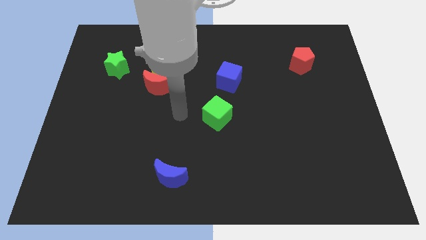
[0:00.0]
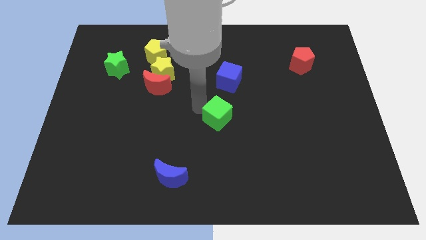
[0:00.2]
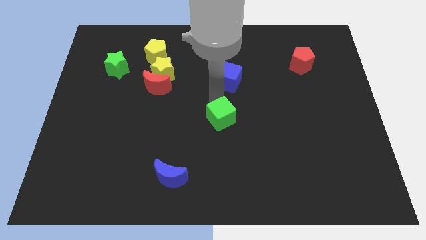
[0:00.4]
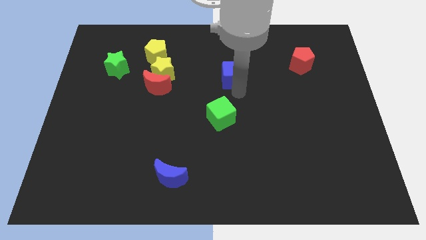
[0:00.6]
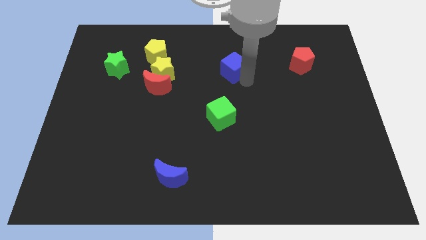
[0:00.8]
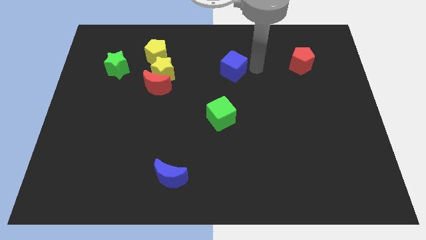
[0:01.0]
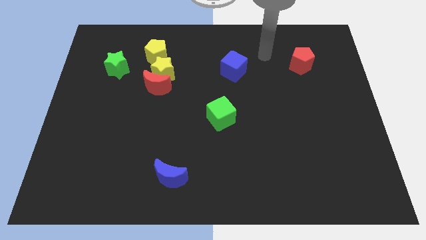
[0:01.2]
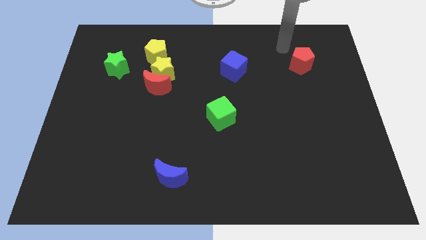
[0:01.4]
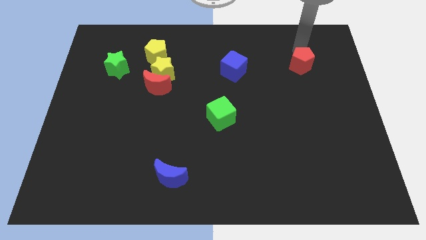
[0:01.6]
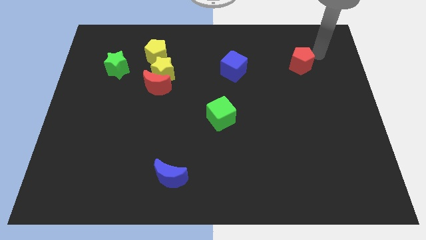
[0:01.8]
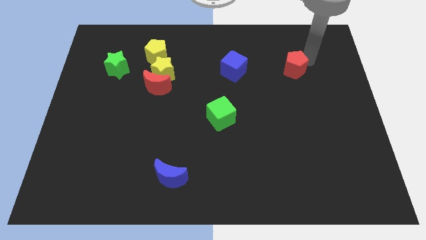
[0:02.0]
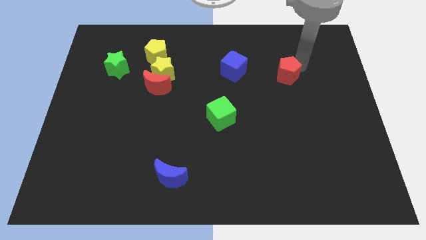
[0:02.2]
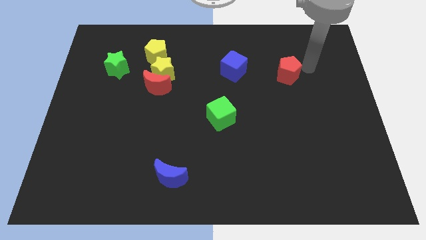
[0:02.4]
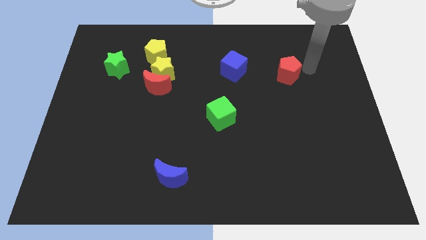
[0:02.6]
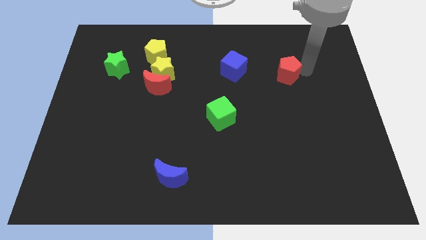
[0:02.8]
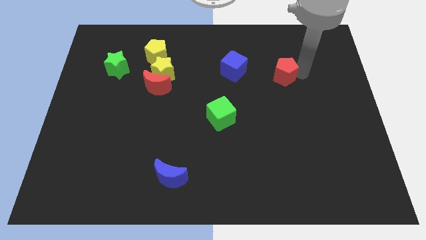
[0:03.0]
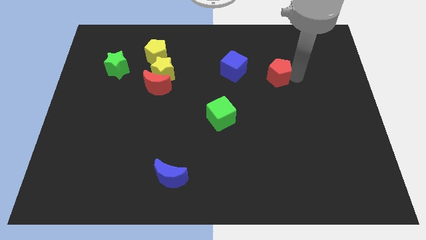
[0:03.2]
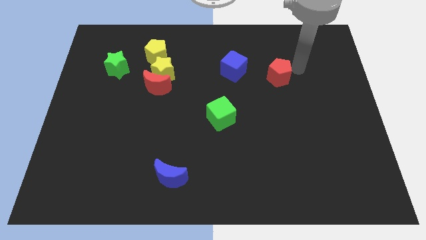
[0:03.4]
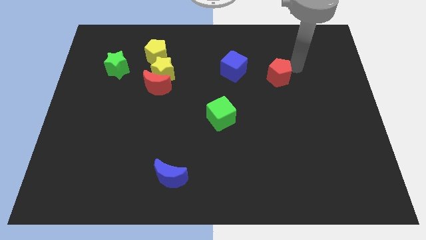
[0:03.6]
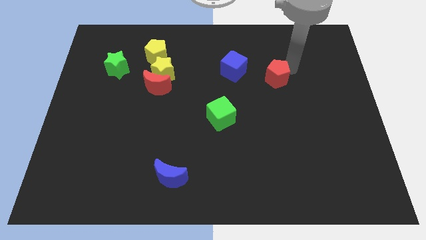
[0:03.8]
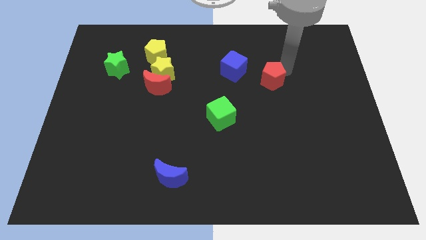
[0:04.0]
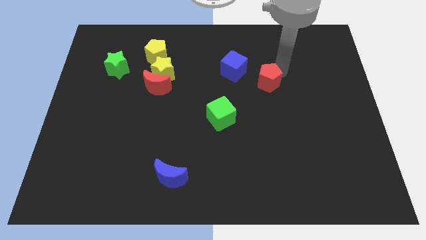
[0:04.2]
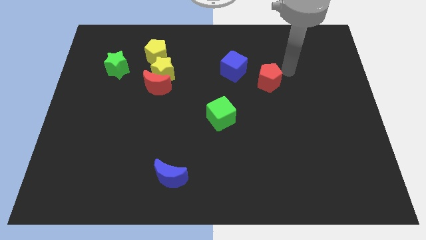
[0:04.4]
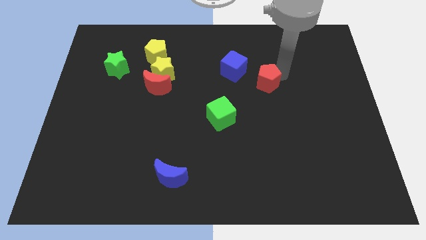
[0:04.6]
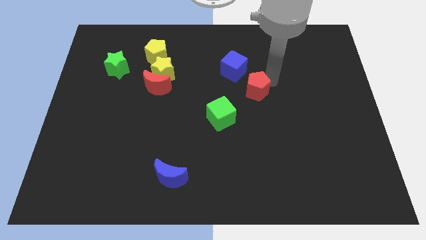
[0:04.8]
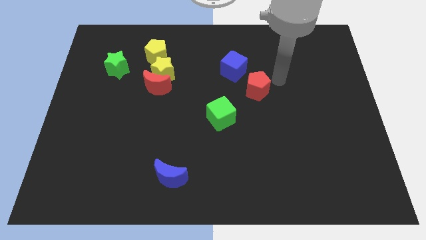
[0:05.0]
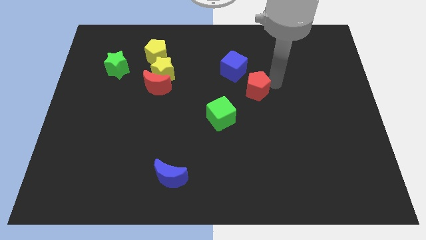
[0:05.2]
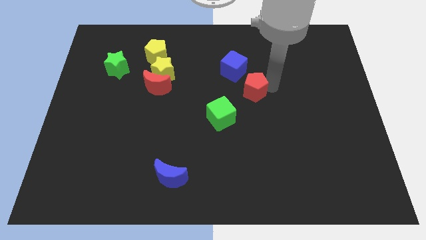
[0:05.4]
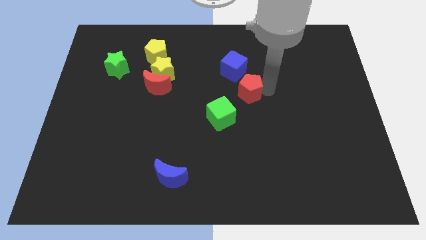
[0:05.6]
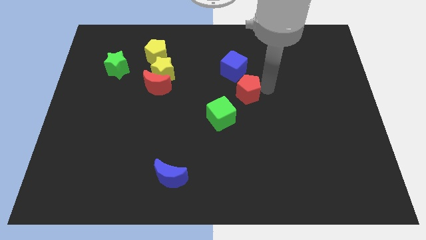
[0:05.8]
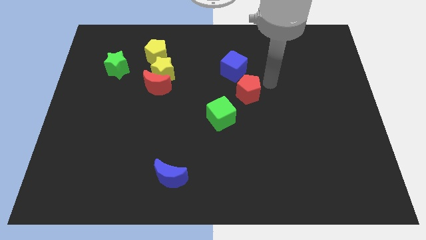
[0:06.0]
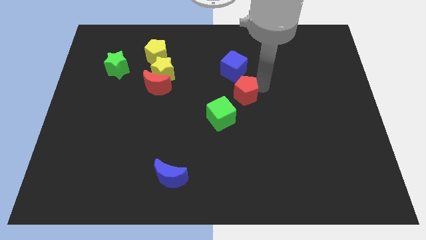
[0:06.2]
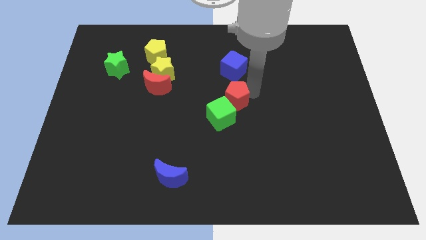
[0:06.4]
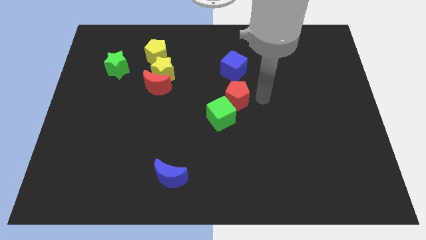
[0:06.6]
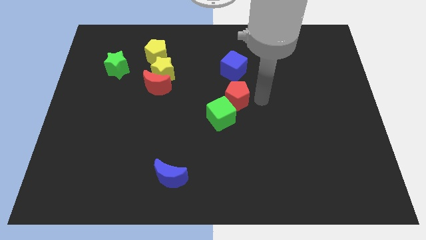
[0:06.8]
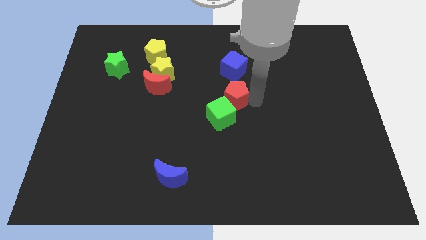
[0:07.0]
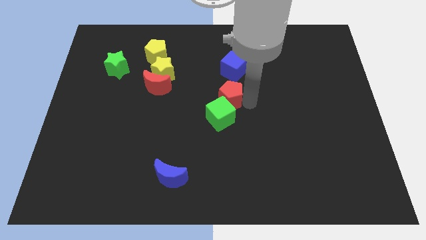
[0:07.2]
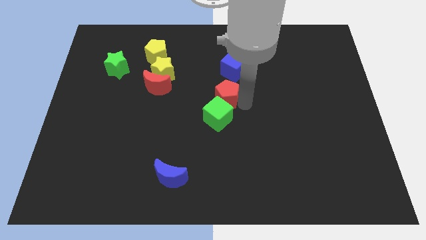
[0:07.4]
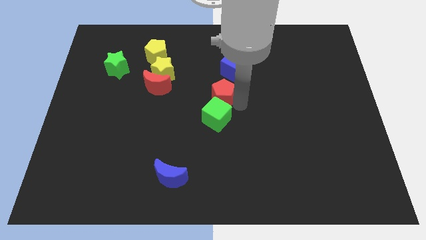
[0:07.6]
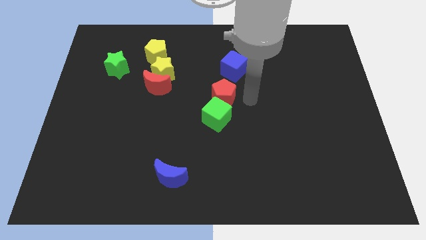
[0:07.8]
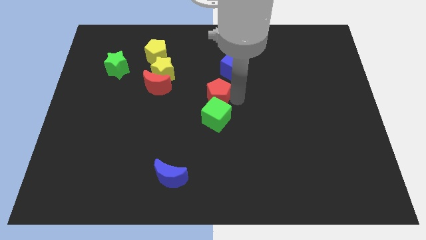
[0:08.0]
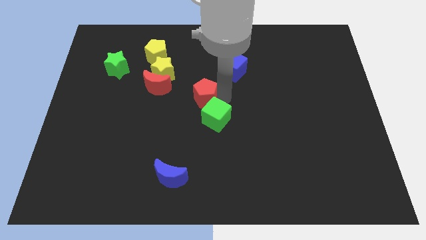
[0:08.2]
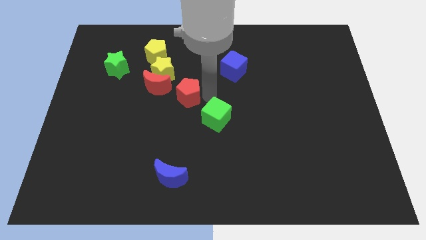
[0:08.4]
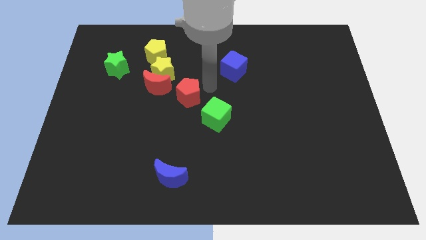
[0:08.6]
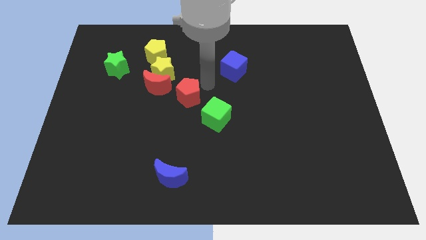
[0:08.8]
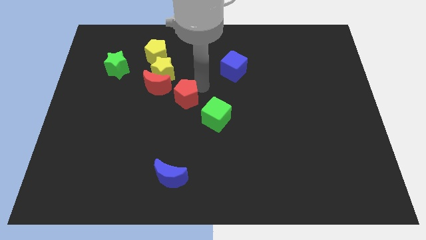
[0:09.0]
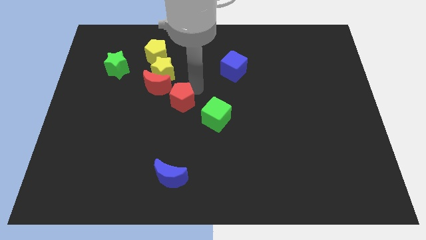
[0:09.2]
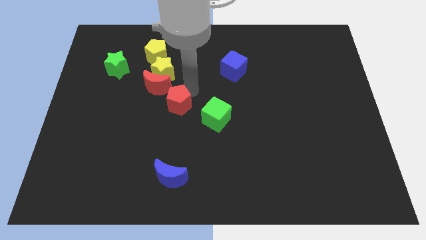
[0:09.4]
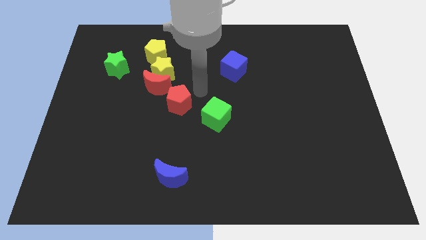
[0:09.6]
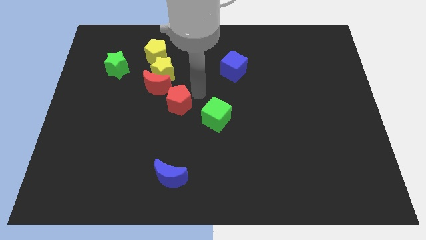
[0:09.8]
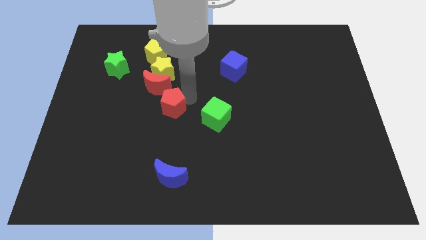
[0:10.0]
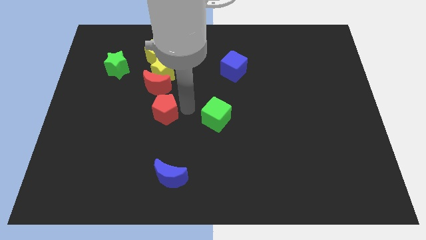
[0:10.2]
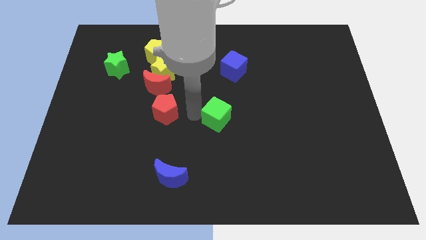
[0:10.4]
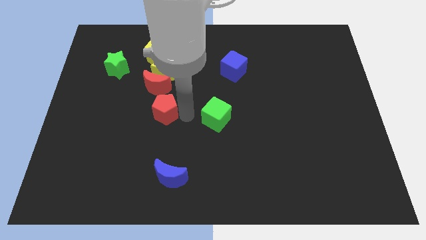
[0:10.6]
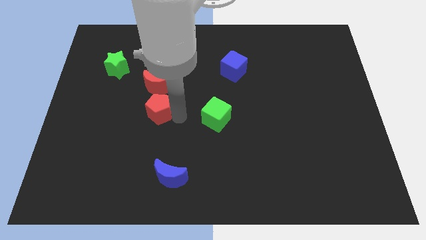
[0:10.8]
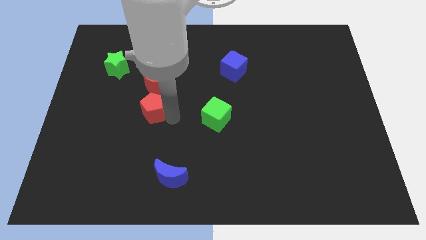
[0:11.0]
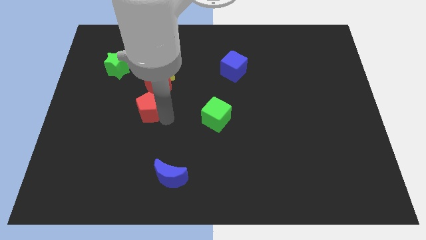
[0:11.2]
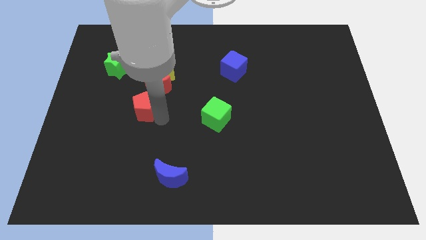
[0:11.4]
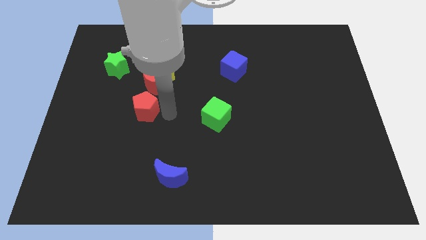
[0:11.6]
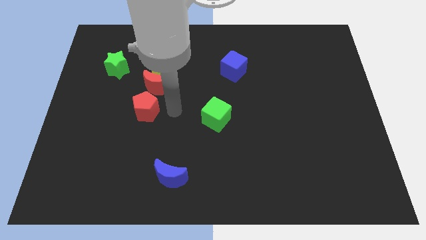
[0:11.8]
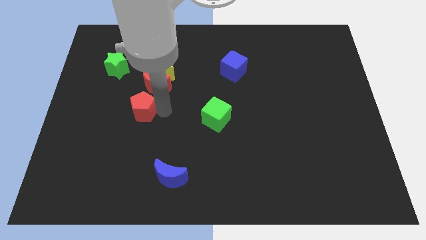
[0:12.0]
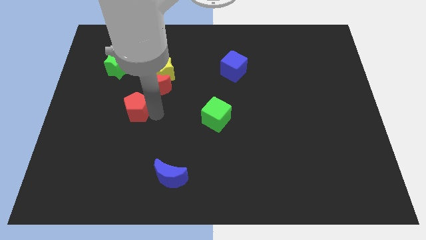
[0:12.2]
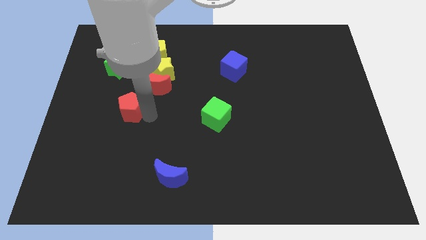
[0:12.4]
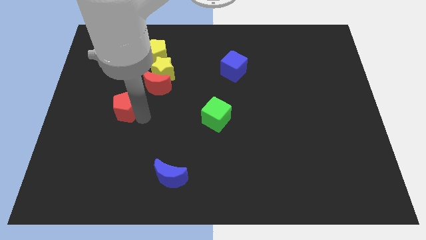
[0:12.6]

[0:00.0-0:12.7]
put the red pentagon to the bottom of the green star

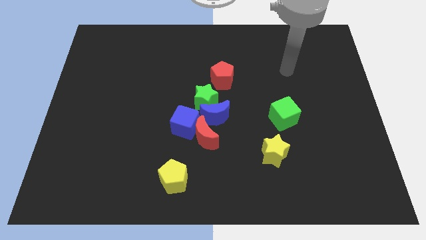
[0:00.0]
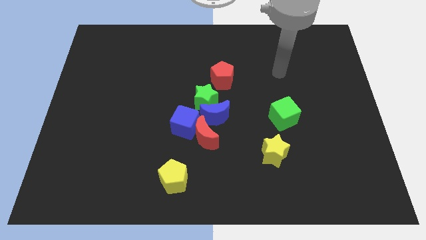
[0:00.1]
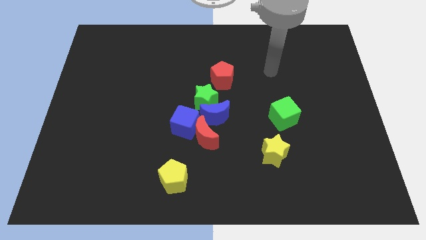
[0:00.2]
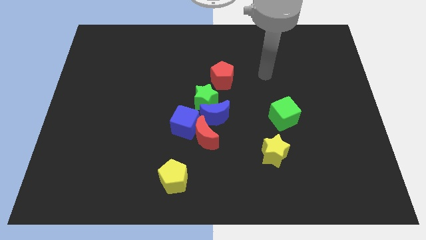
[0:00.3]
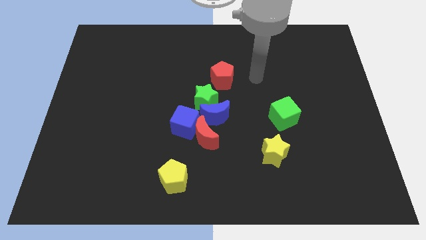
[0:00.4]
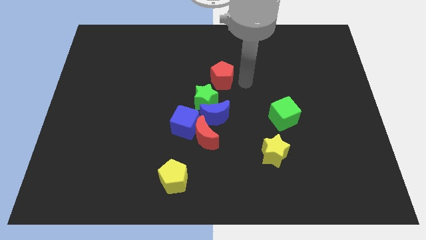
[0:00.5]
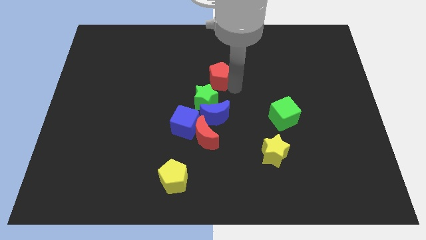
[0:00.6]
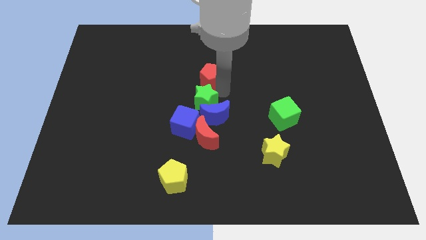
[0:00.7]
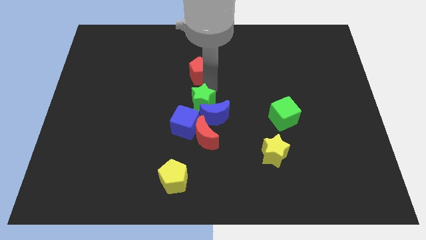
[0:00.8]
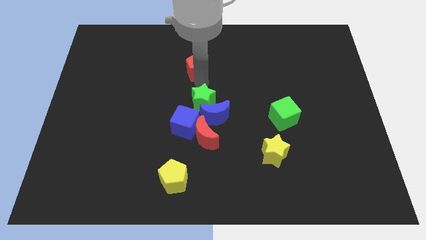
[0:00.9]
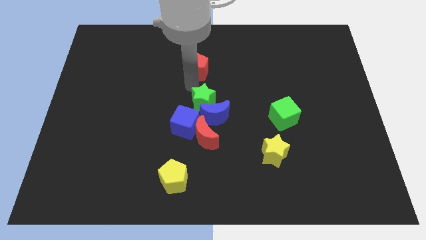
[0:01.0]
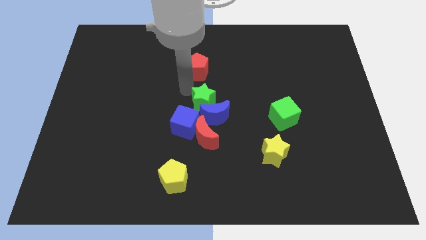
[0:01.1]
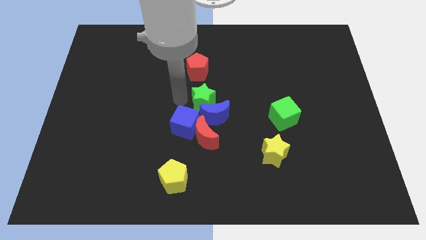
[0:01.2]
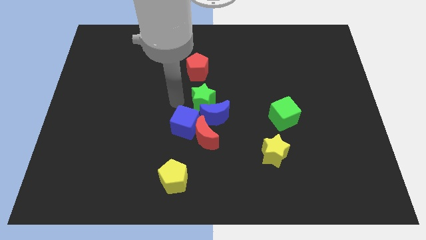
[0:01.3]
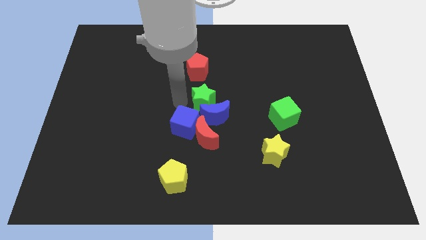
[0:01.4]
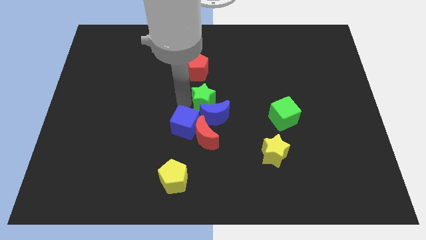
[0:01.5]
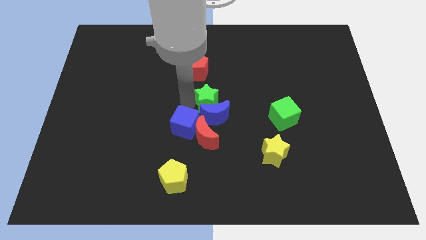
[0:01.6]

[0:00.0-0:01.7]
slide the green star to the top right of the blue moon
